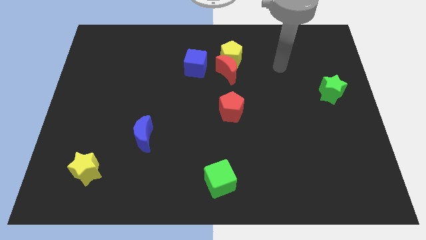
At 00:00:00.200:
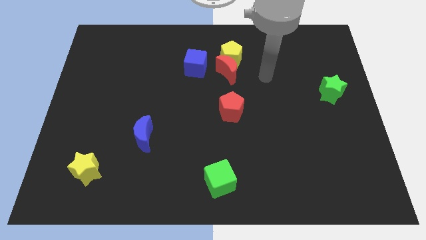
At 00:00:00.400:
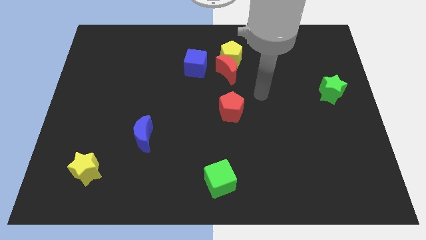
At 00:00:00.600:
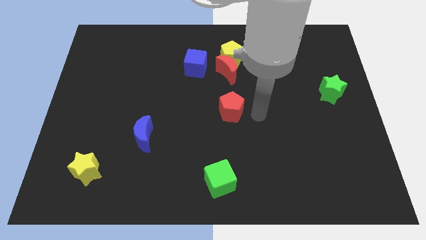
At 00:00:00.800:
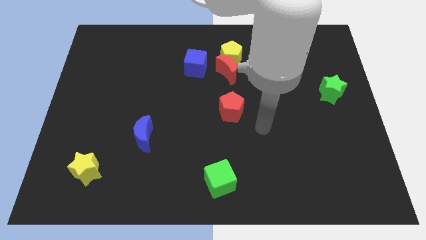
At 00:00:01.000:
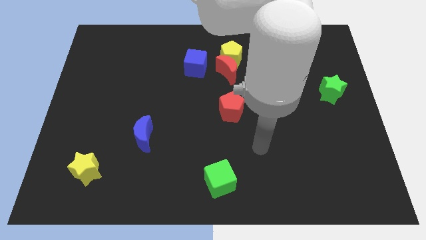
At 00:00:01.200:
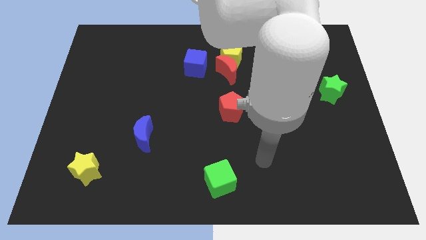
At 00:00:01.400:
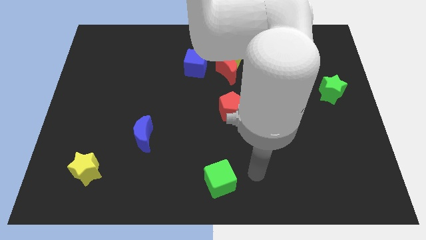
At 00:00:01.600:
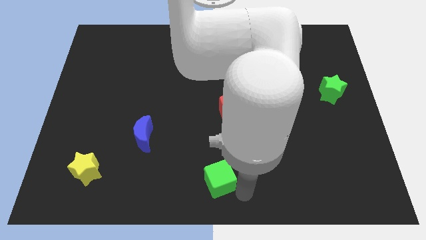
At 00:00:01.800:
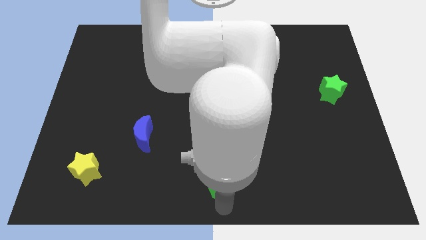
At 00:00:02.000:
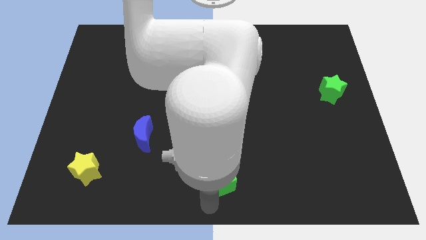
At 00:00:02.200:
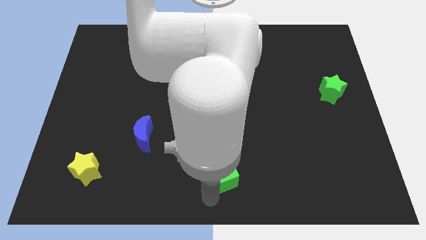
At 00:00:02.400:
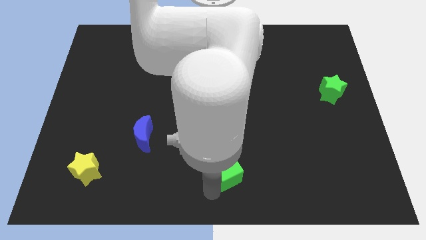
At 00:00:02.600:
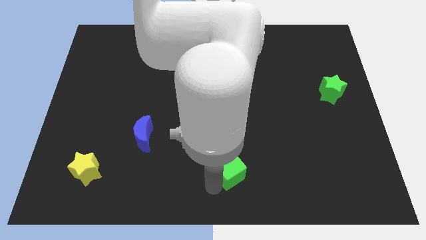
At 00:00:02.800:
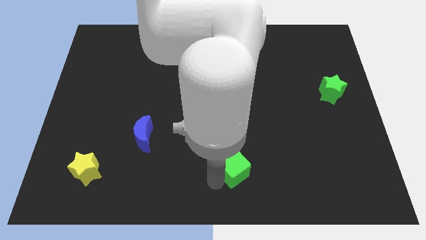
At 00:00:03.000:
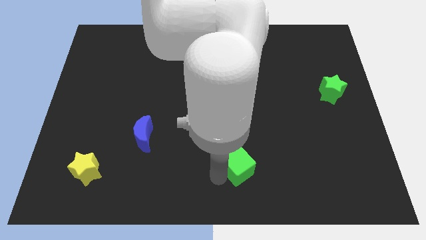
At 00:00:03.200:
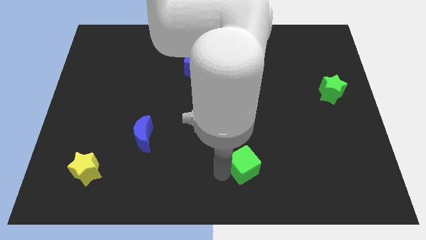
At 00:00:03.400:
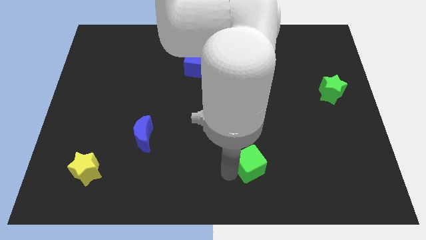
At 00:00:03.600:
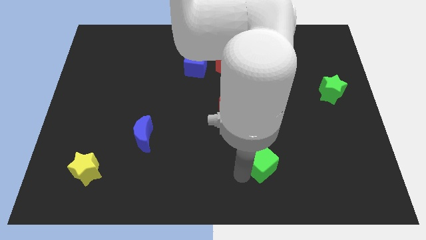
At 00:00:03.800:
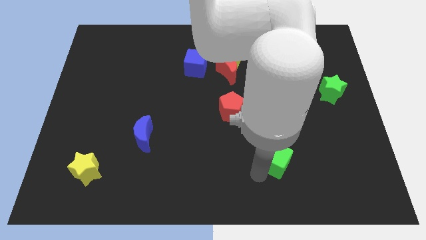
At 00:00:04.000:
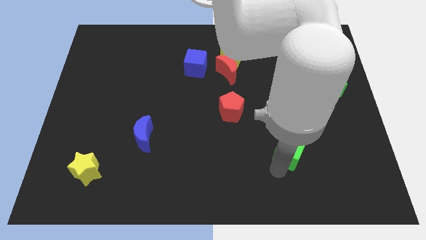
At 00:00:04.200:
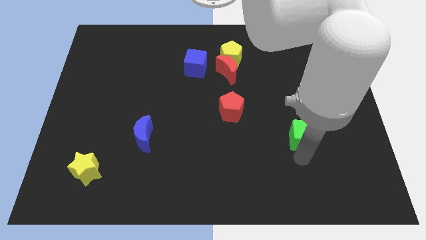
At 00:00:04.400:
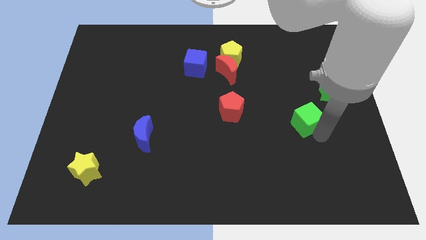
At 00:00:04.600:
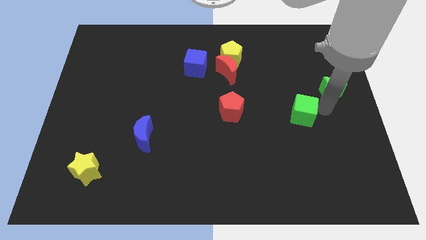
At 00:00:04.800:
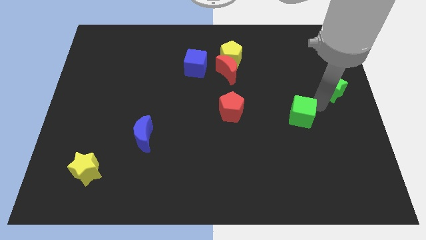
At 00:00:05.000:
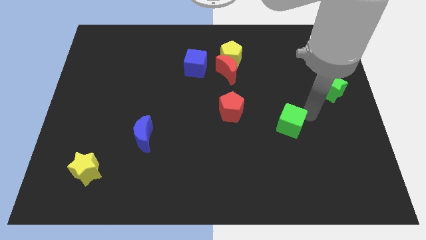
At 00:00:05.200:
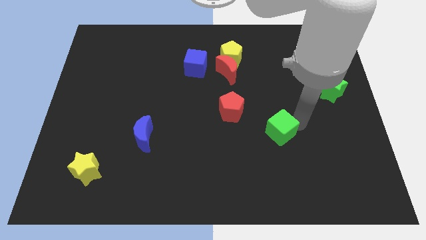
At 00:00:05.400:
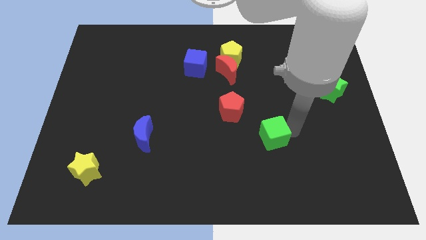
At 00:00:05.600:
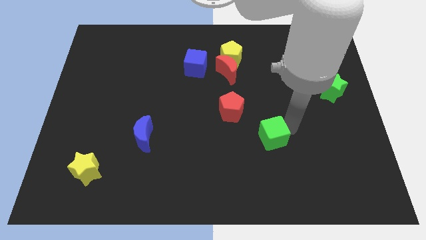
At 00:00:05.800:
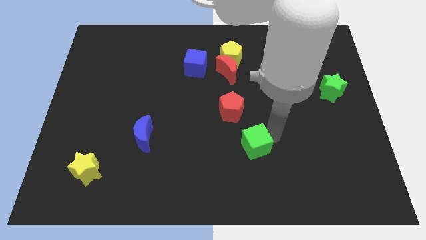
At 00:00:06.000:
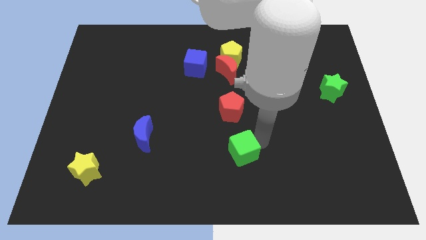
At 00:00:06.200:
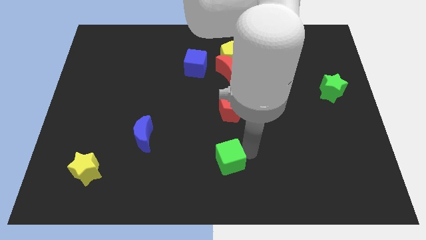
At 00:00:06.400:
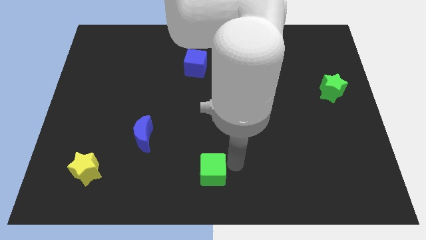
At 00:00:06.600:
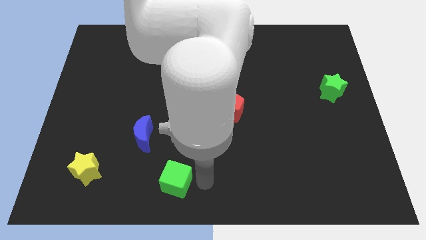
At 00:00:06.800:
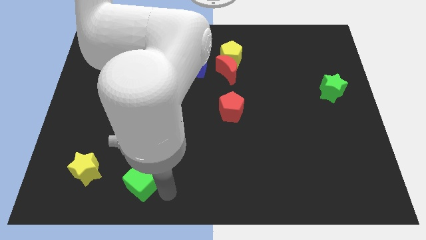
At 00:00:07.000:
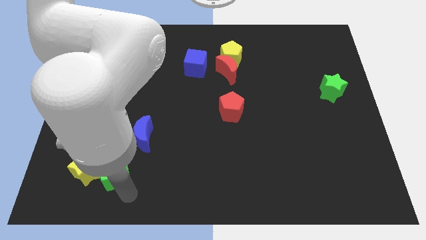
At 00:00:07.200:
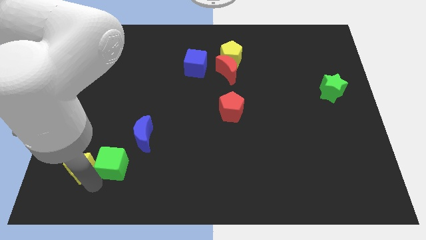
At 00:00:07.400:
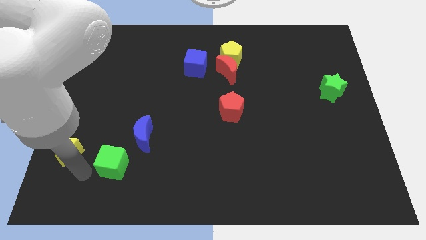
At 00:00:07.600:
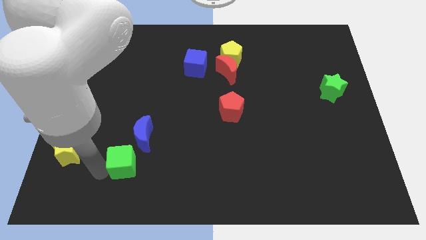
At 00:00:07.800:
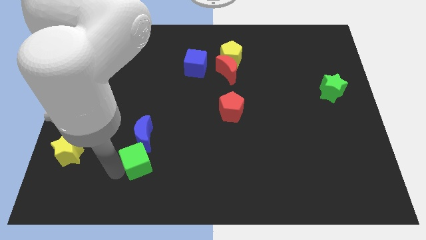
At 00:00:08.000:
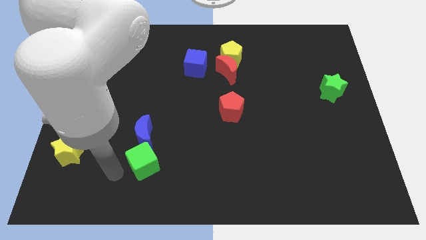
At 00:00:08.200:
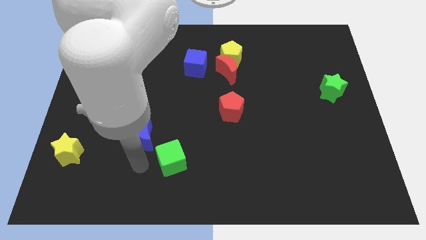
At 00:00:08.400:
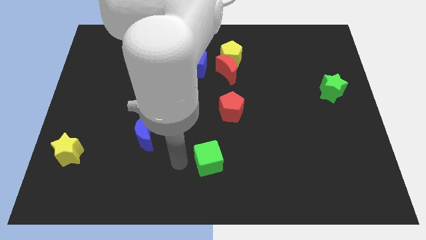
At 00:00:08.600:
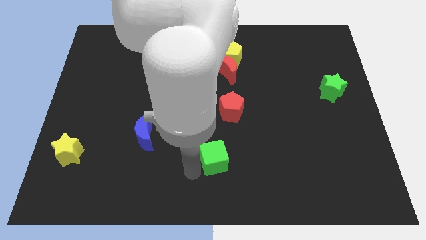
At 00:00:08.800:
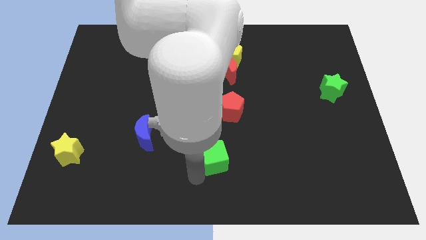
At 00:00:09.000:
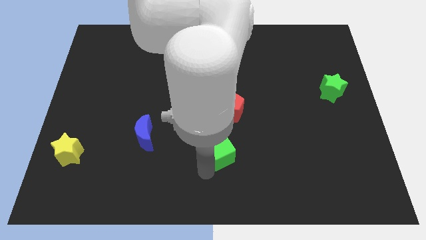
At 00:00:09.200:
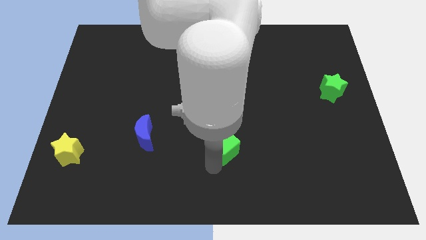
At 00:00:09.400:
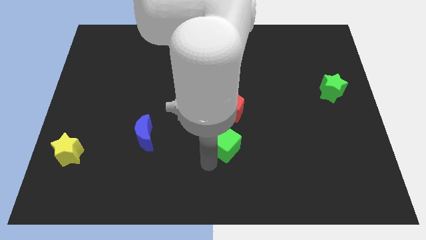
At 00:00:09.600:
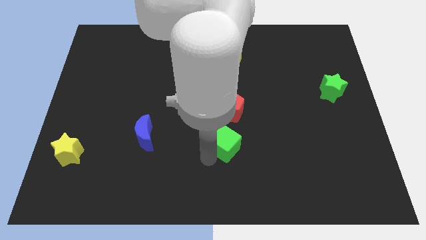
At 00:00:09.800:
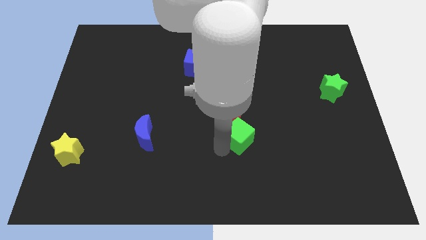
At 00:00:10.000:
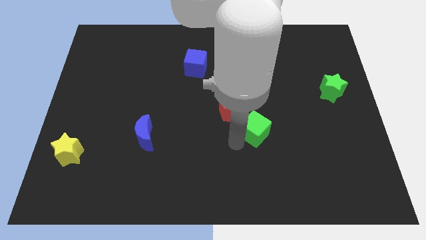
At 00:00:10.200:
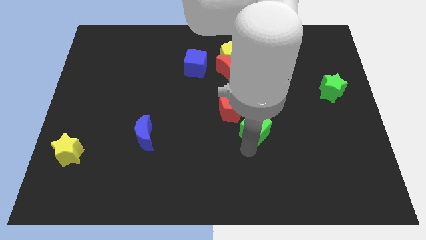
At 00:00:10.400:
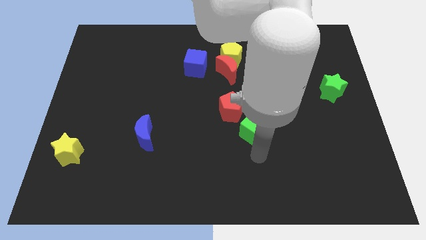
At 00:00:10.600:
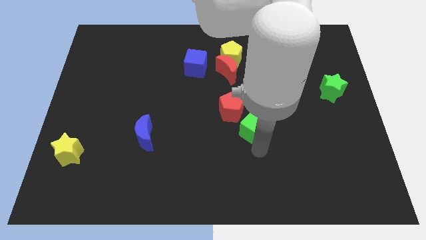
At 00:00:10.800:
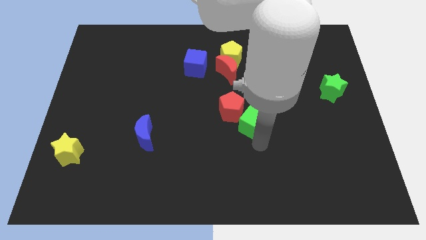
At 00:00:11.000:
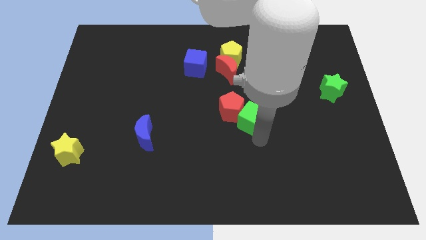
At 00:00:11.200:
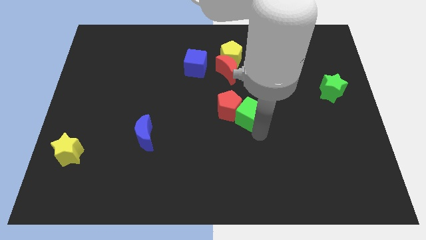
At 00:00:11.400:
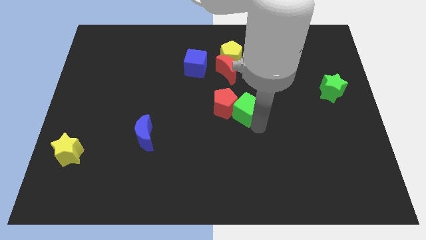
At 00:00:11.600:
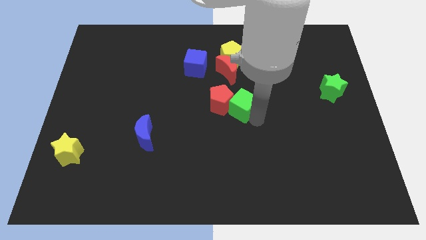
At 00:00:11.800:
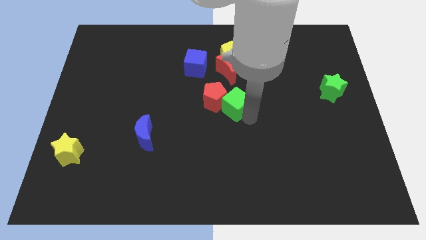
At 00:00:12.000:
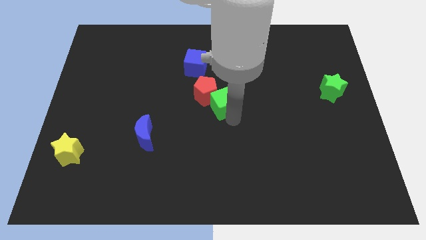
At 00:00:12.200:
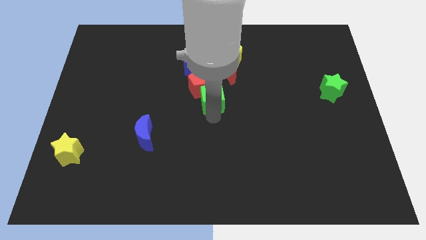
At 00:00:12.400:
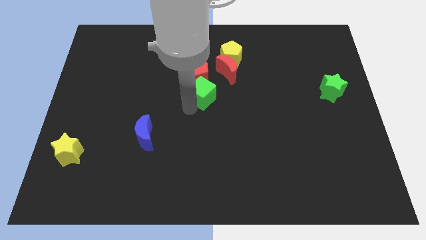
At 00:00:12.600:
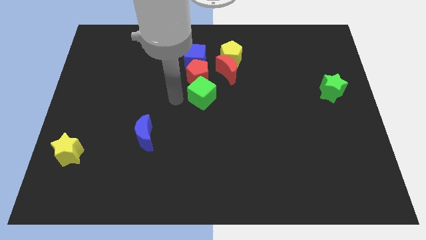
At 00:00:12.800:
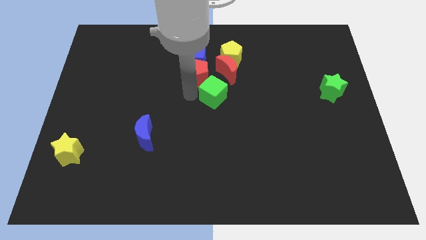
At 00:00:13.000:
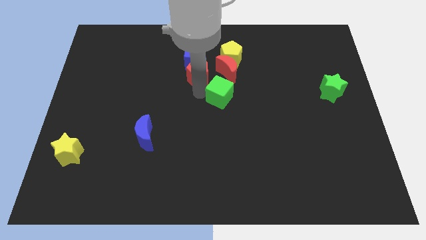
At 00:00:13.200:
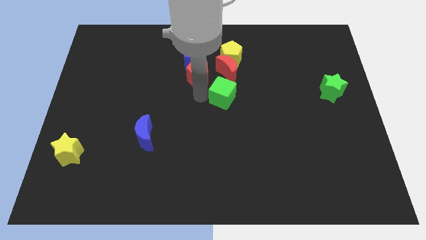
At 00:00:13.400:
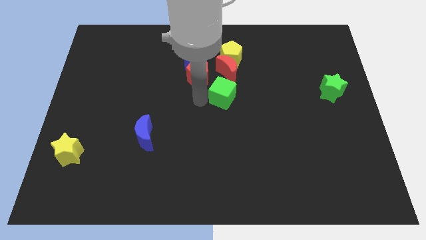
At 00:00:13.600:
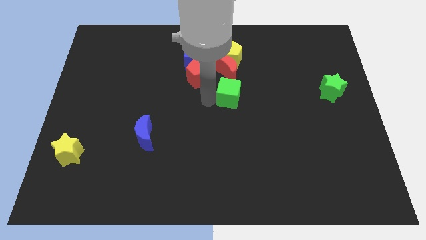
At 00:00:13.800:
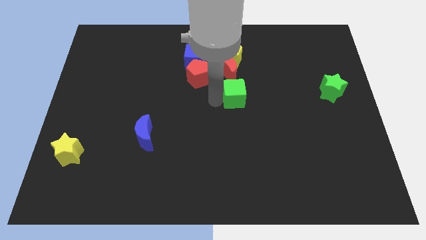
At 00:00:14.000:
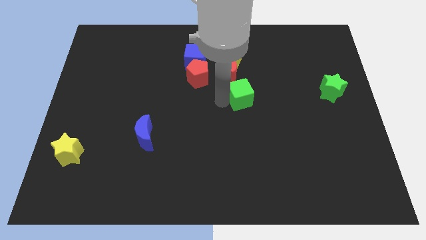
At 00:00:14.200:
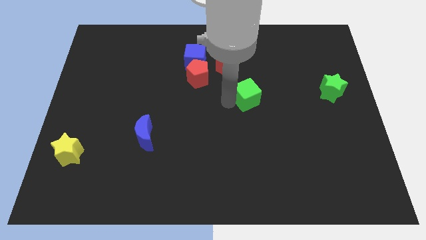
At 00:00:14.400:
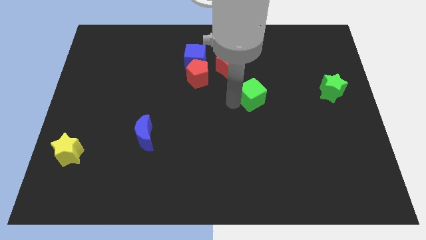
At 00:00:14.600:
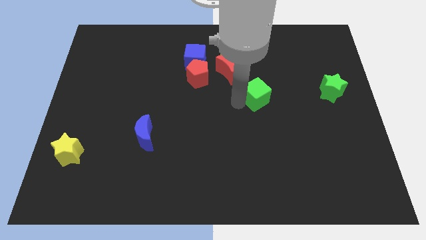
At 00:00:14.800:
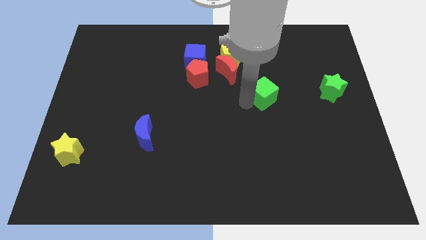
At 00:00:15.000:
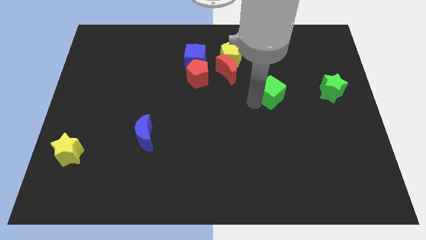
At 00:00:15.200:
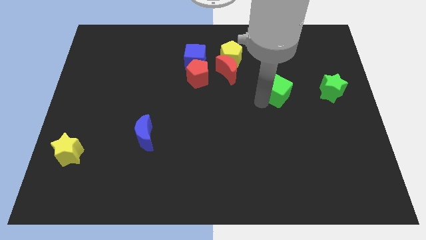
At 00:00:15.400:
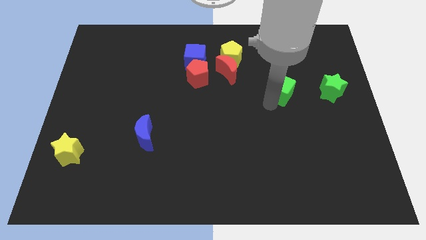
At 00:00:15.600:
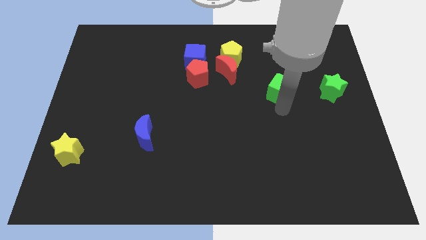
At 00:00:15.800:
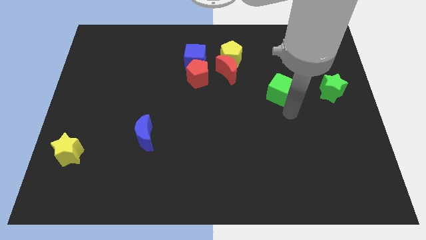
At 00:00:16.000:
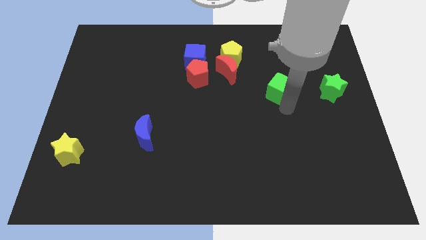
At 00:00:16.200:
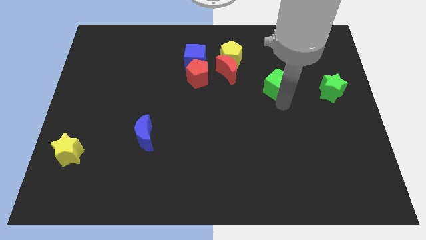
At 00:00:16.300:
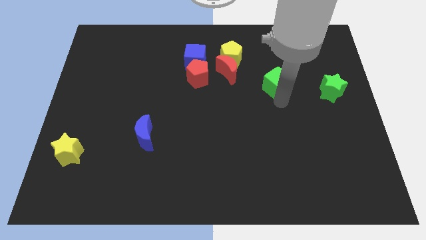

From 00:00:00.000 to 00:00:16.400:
put the green cube to the right side of the red moon
